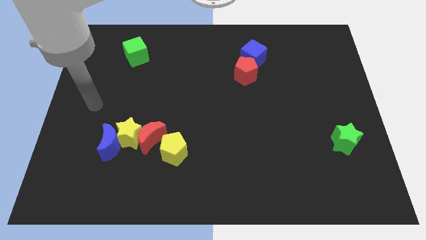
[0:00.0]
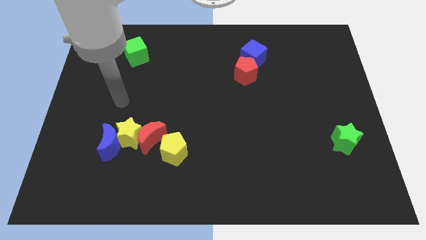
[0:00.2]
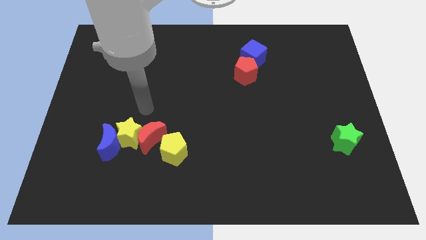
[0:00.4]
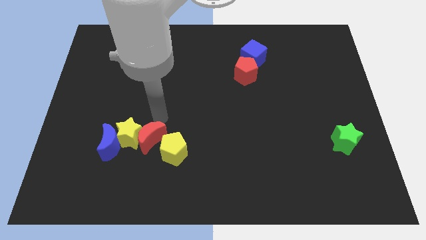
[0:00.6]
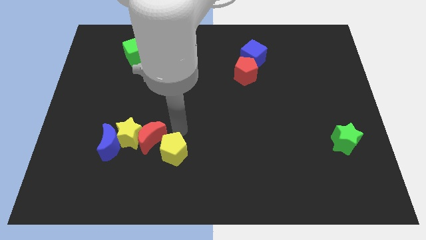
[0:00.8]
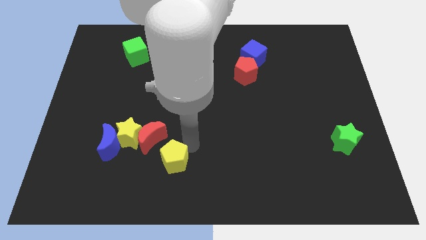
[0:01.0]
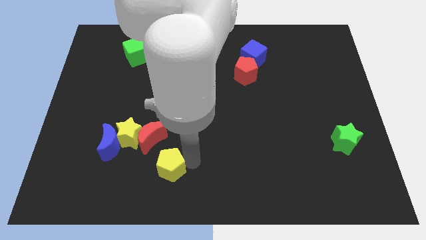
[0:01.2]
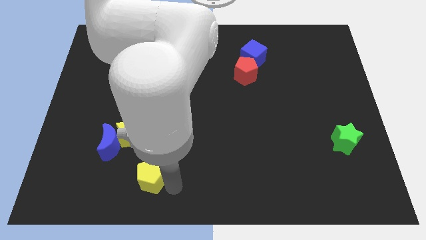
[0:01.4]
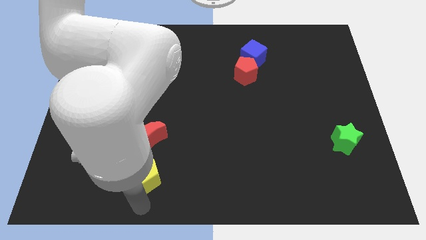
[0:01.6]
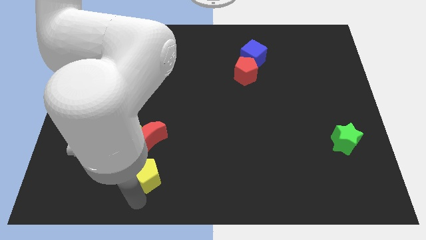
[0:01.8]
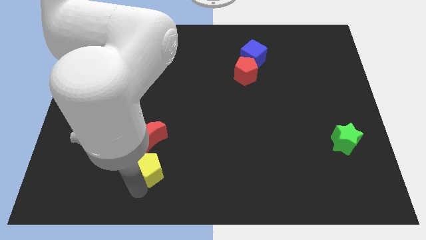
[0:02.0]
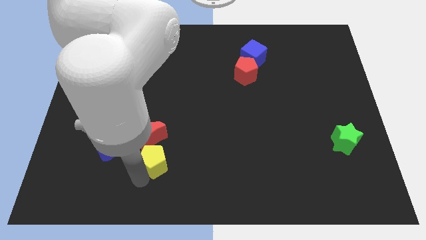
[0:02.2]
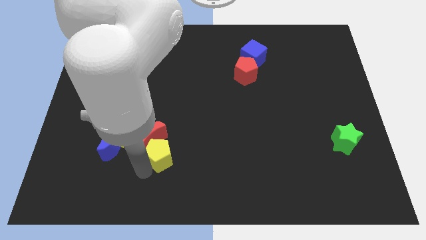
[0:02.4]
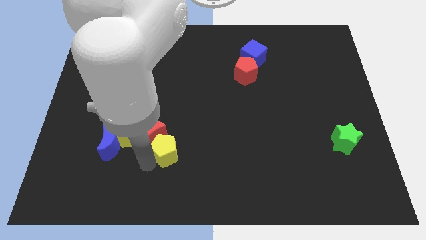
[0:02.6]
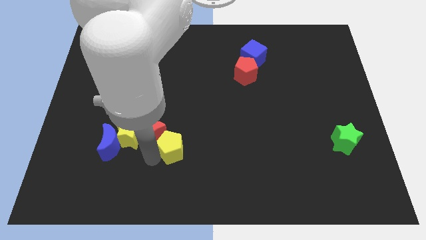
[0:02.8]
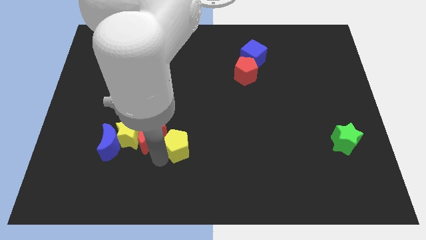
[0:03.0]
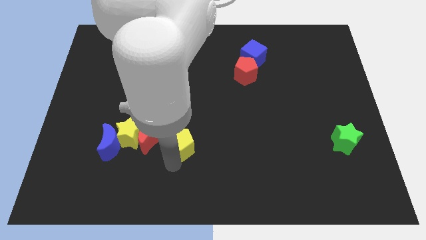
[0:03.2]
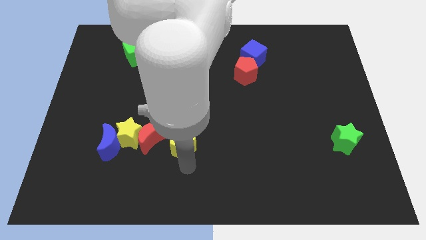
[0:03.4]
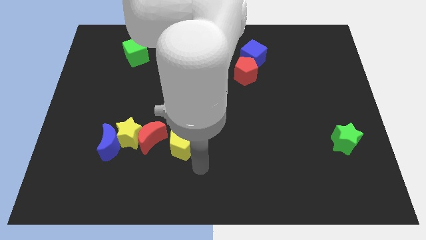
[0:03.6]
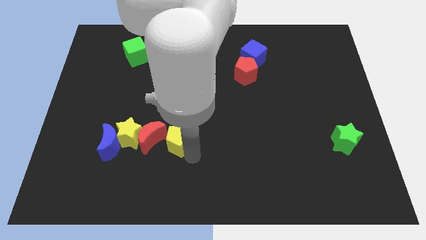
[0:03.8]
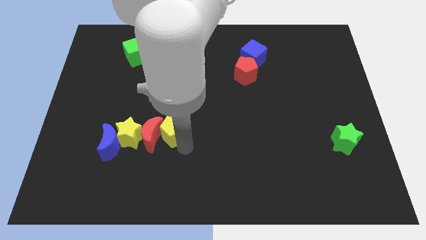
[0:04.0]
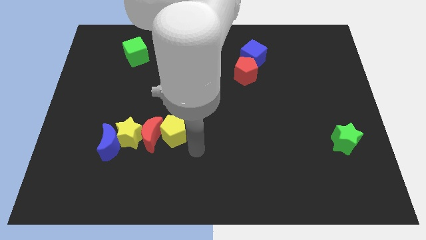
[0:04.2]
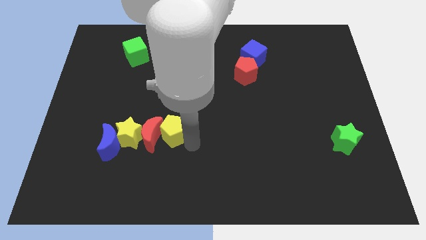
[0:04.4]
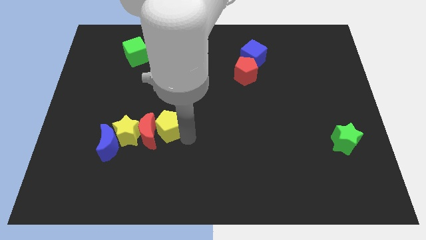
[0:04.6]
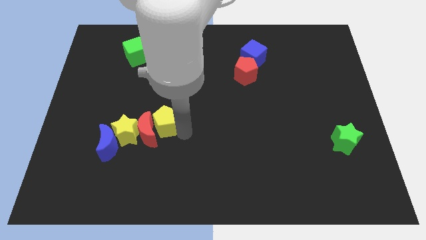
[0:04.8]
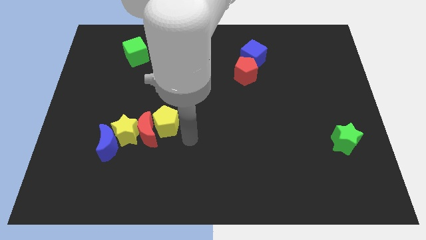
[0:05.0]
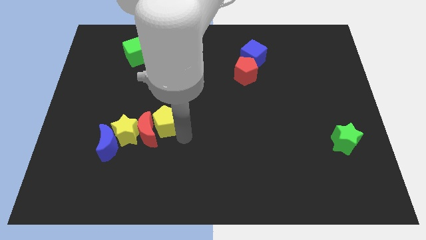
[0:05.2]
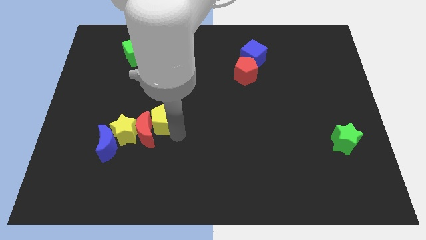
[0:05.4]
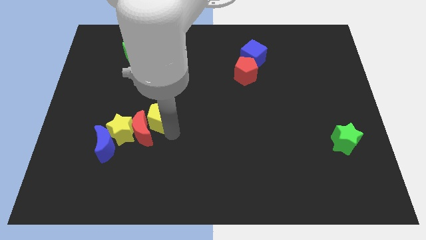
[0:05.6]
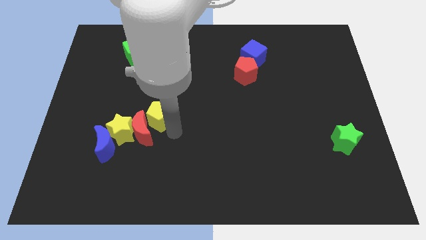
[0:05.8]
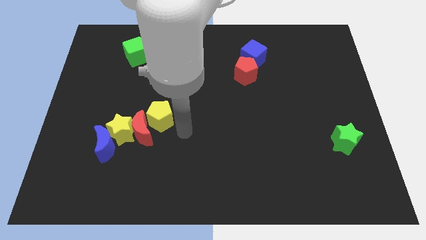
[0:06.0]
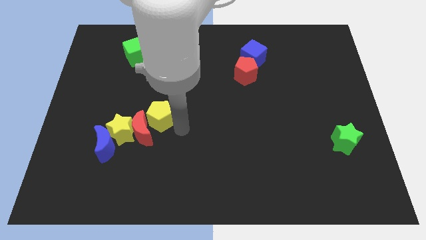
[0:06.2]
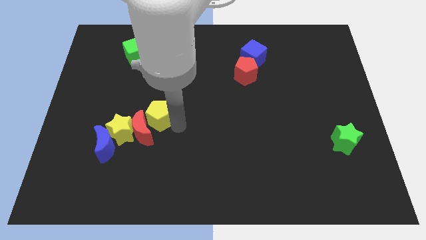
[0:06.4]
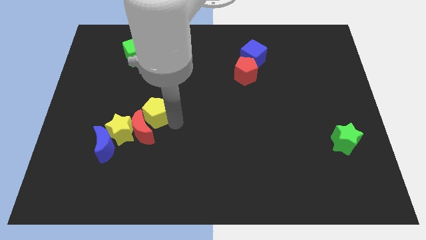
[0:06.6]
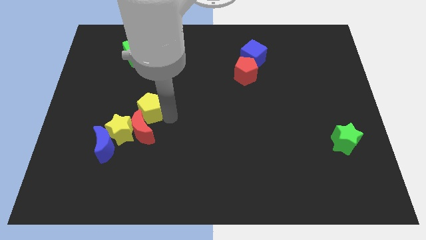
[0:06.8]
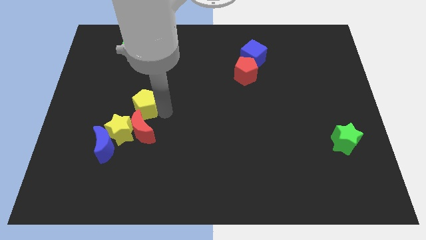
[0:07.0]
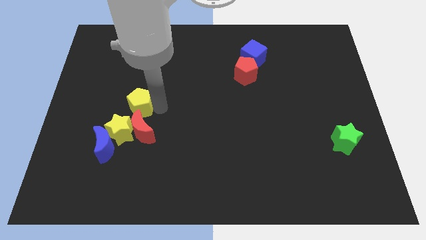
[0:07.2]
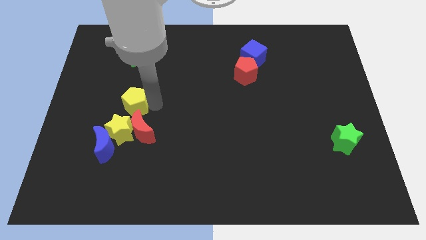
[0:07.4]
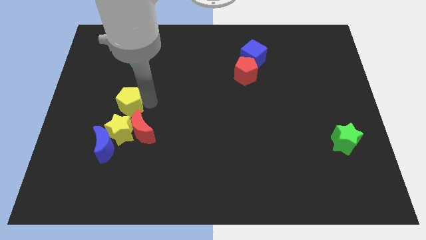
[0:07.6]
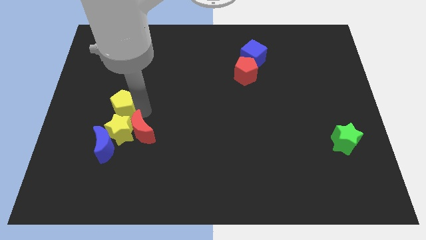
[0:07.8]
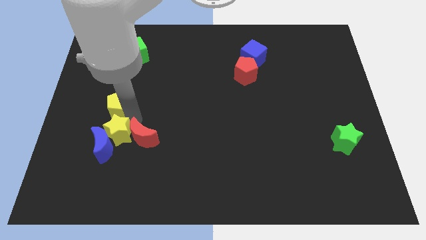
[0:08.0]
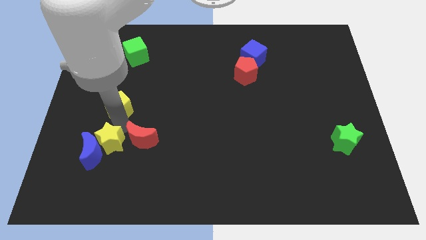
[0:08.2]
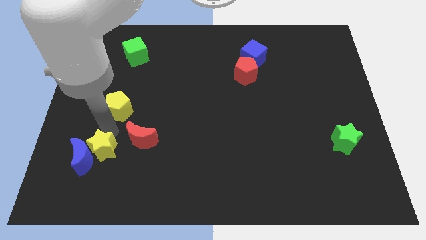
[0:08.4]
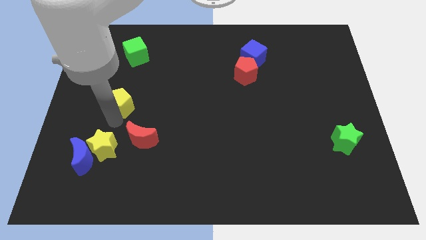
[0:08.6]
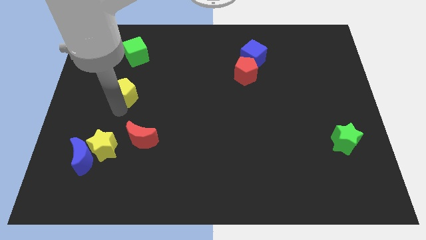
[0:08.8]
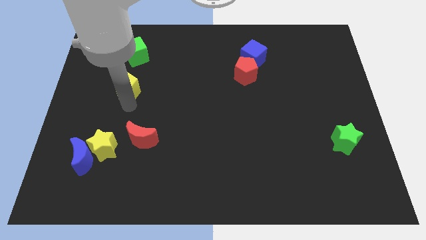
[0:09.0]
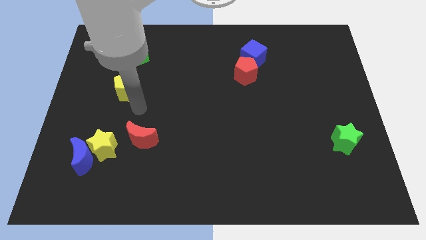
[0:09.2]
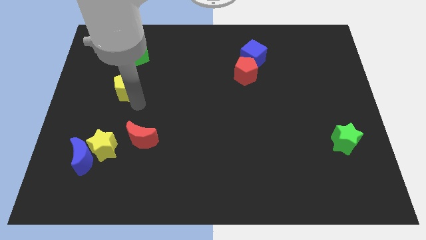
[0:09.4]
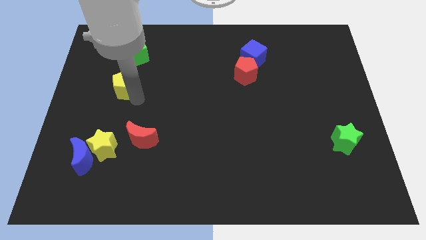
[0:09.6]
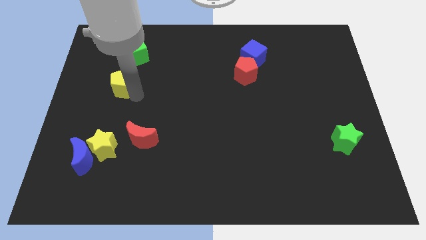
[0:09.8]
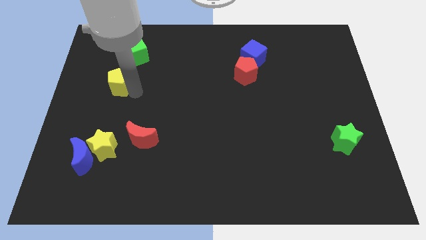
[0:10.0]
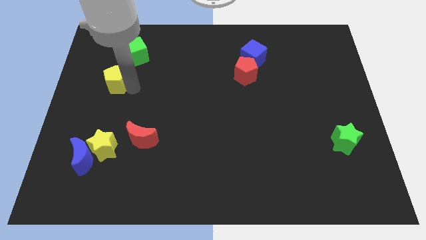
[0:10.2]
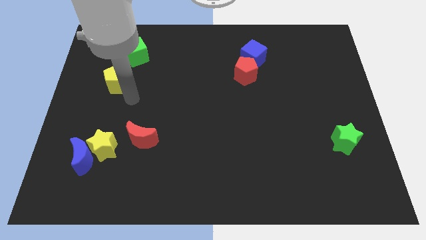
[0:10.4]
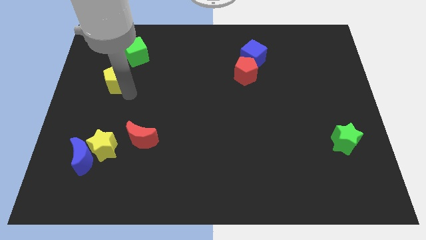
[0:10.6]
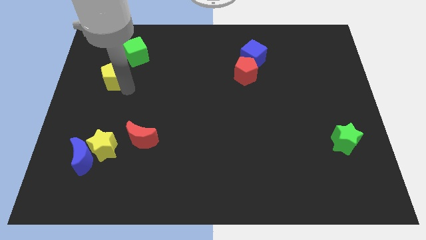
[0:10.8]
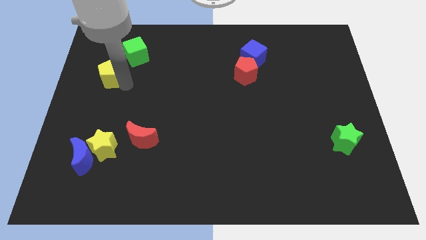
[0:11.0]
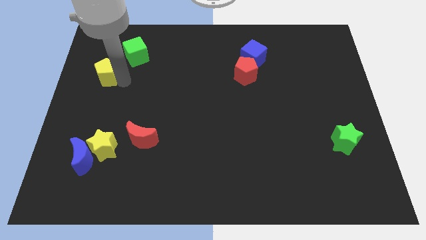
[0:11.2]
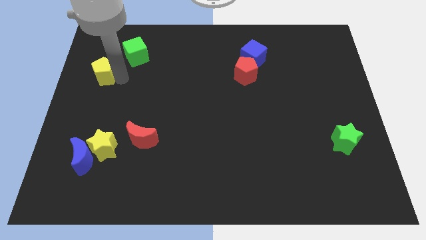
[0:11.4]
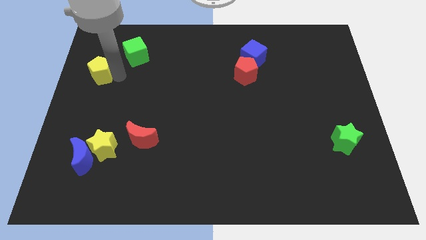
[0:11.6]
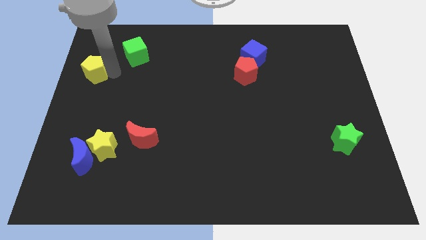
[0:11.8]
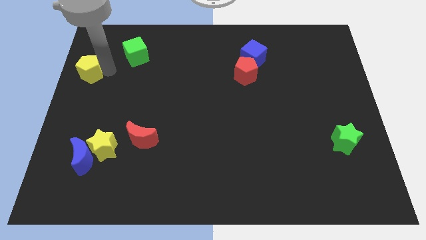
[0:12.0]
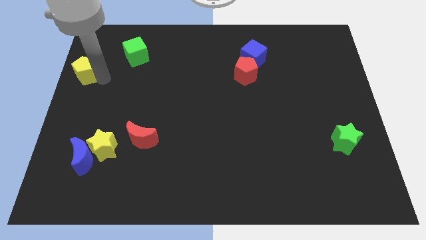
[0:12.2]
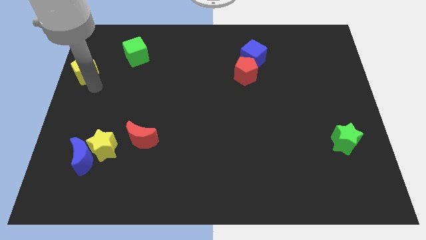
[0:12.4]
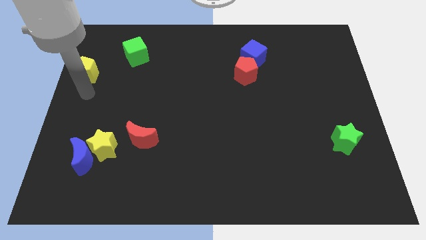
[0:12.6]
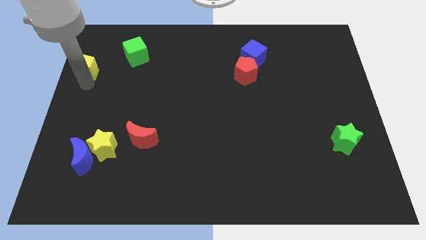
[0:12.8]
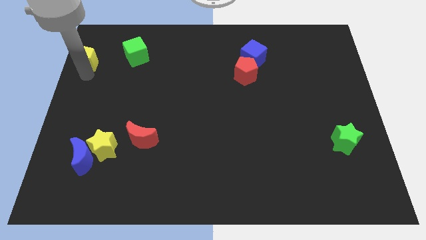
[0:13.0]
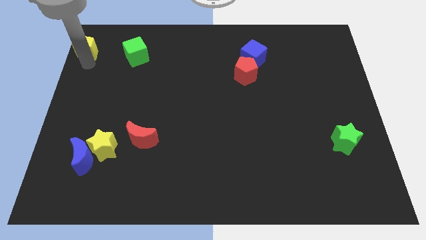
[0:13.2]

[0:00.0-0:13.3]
slide the yellow pentagon to the top left of the board

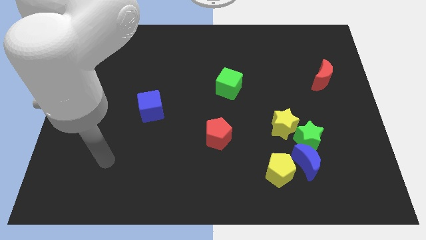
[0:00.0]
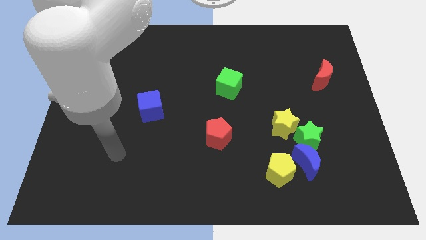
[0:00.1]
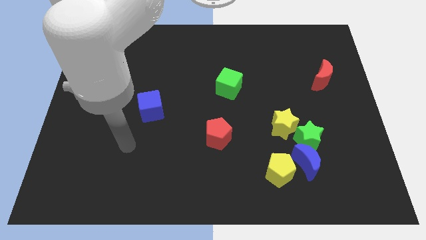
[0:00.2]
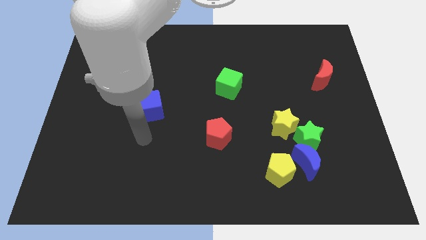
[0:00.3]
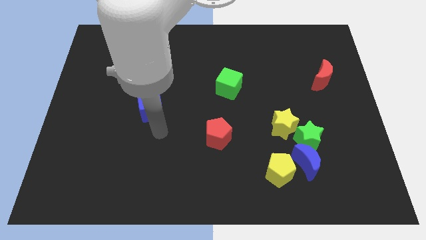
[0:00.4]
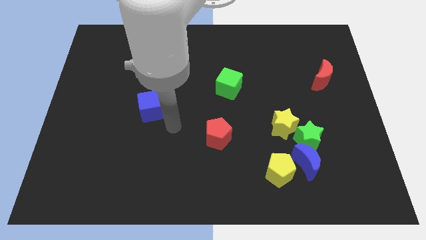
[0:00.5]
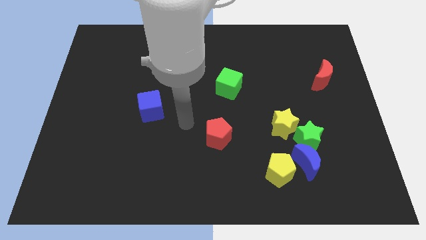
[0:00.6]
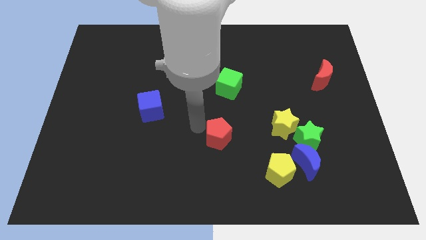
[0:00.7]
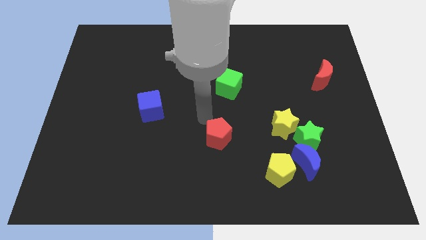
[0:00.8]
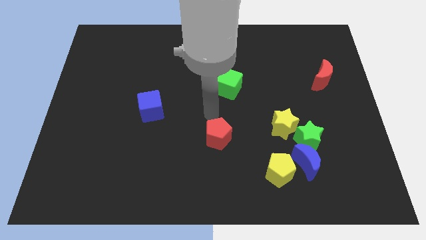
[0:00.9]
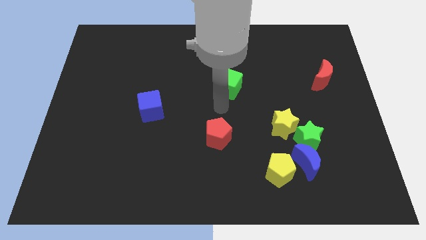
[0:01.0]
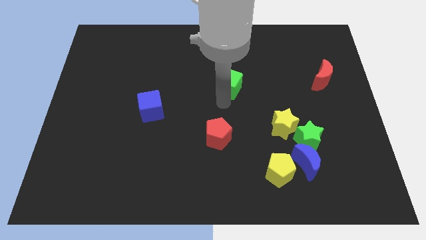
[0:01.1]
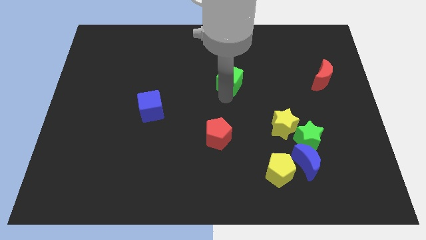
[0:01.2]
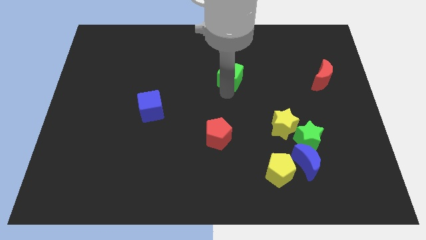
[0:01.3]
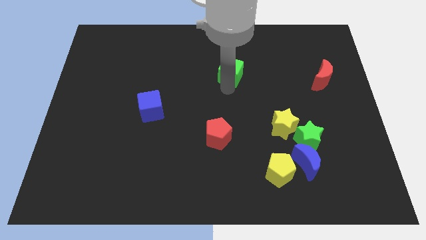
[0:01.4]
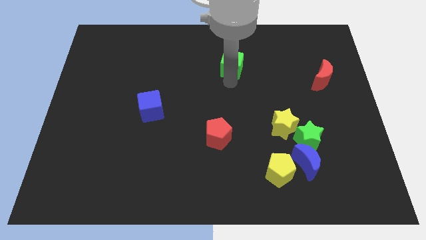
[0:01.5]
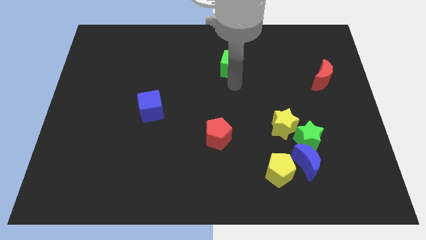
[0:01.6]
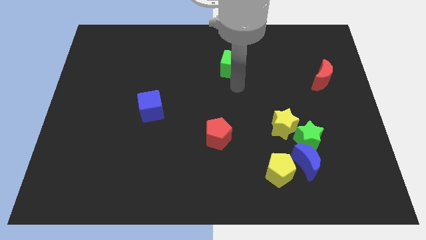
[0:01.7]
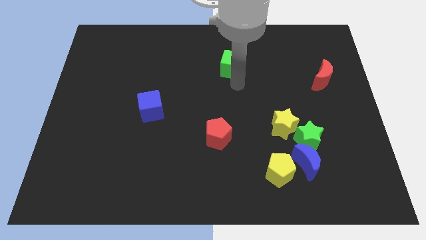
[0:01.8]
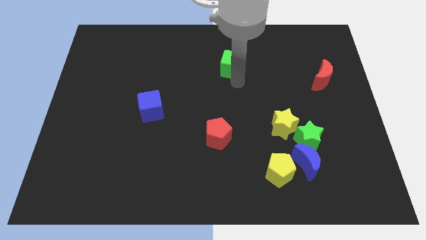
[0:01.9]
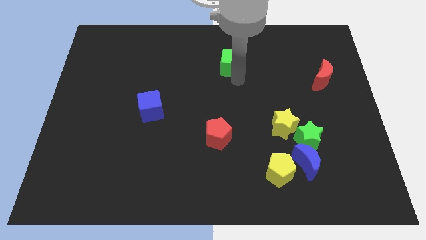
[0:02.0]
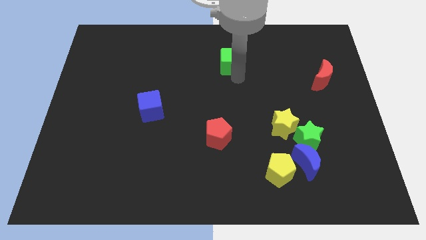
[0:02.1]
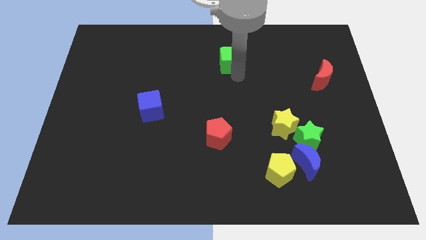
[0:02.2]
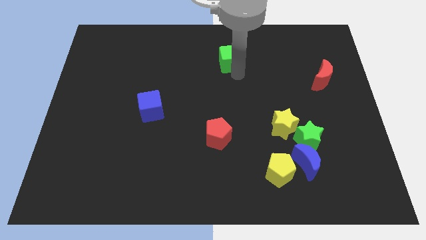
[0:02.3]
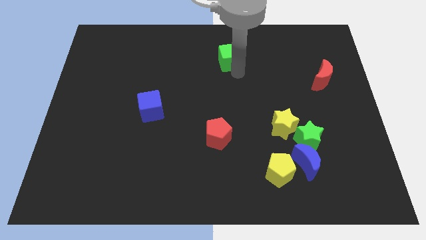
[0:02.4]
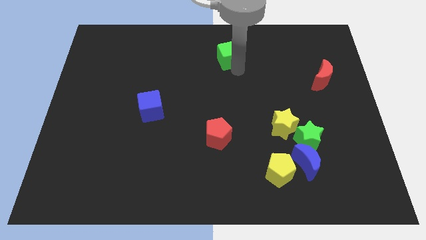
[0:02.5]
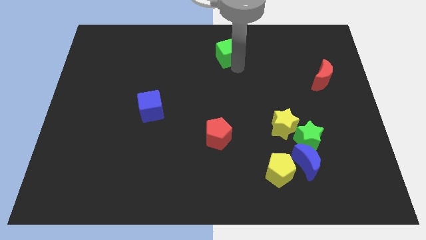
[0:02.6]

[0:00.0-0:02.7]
put the green cube to the top
